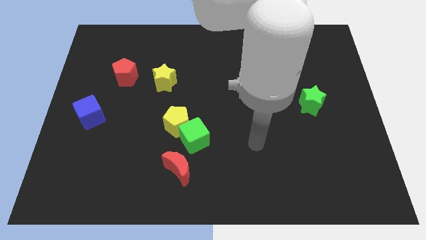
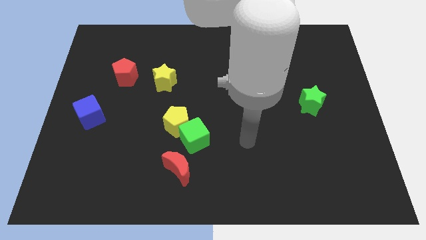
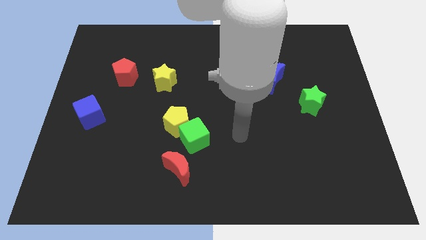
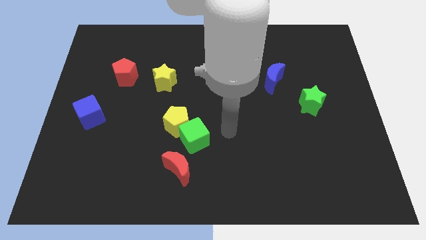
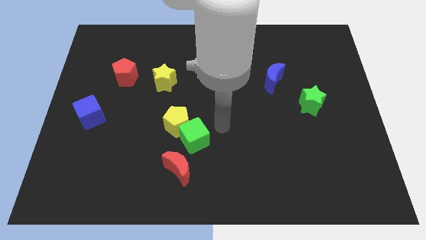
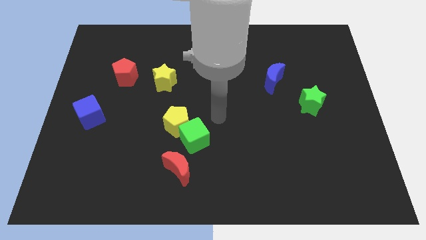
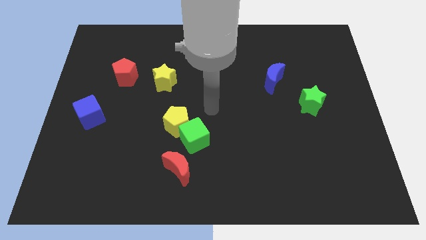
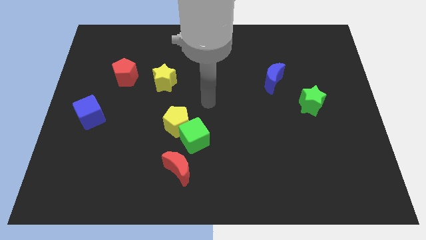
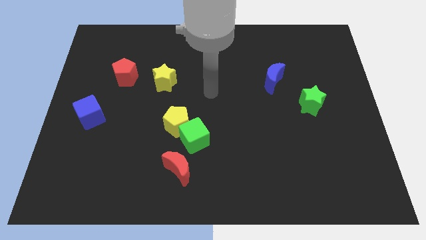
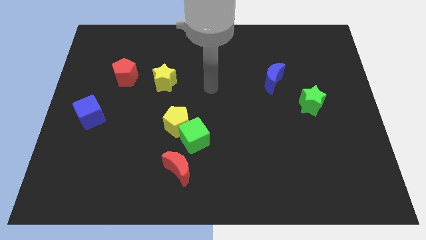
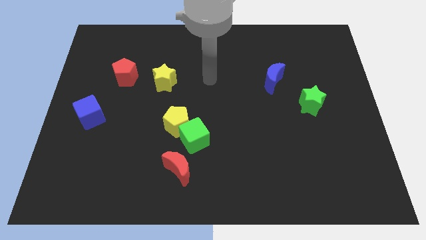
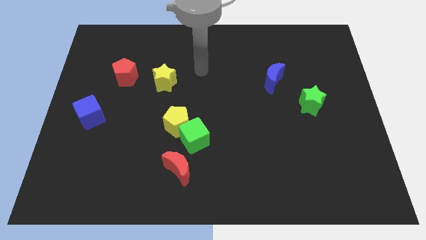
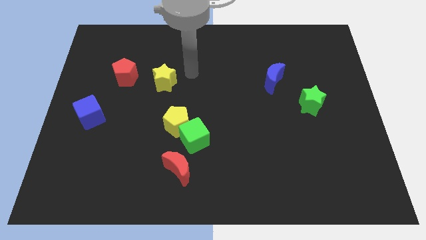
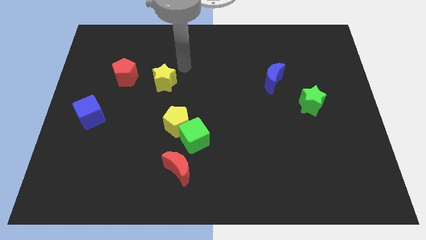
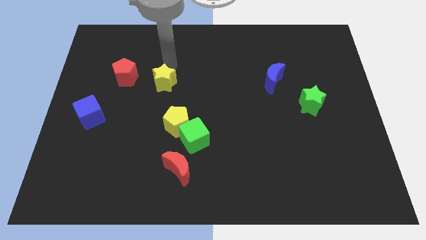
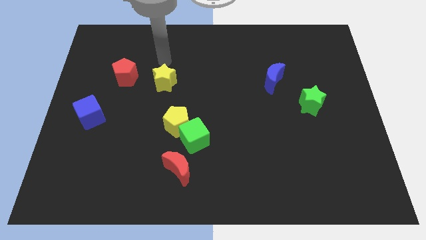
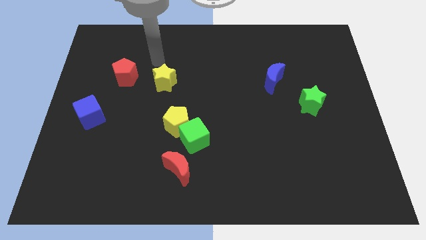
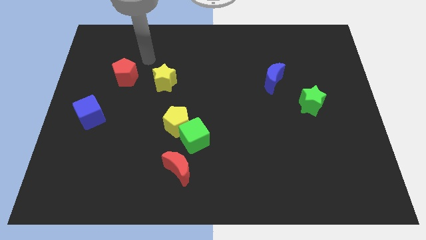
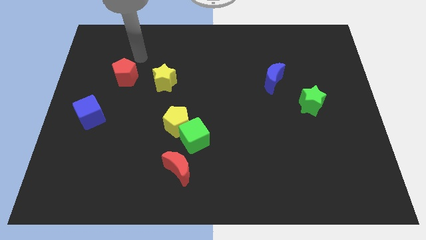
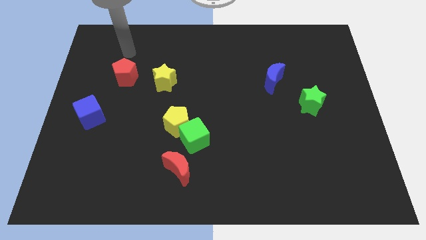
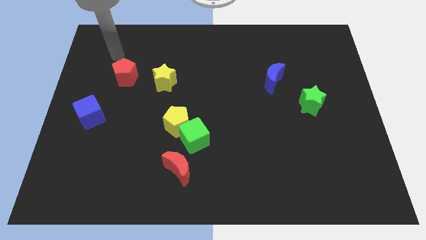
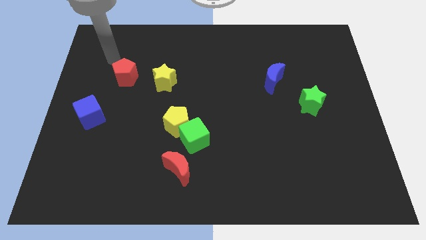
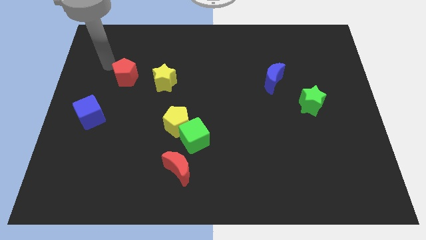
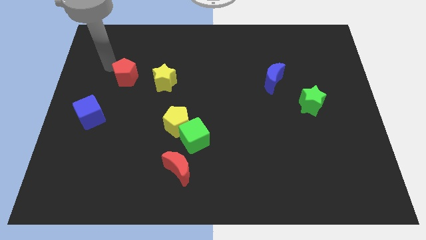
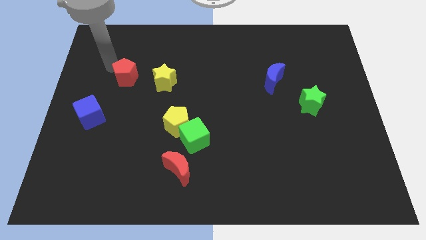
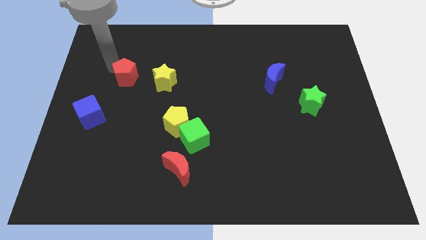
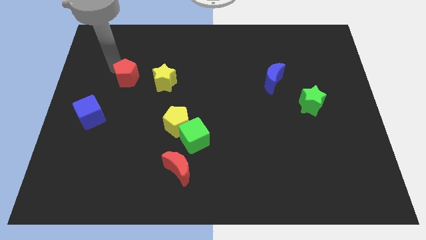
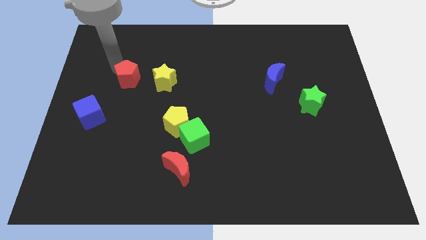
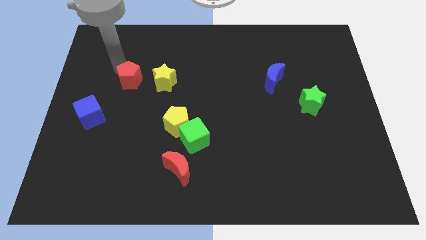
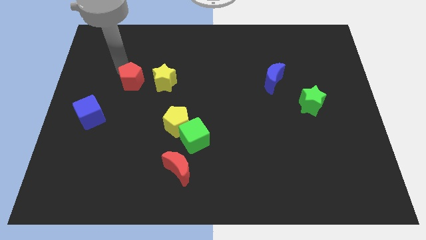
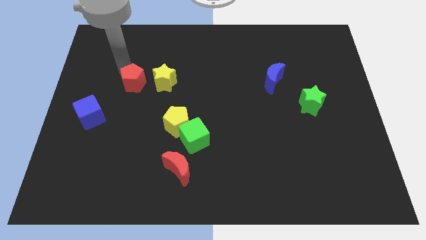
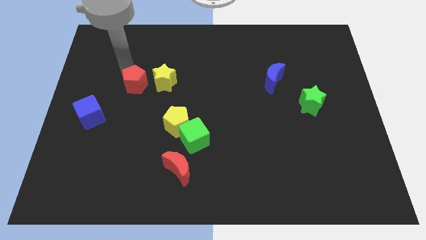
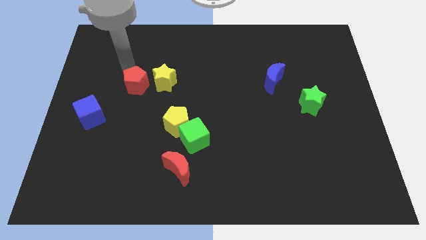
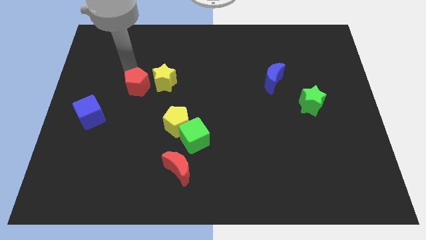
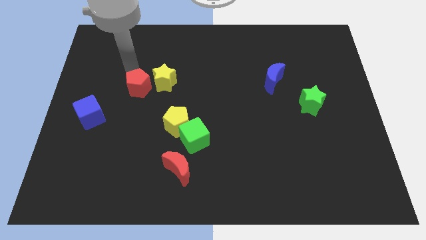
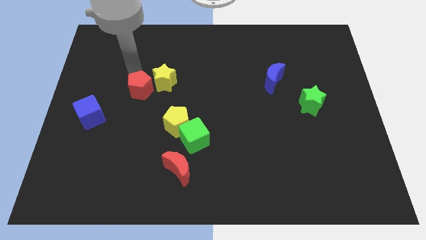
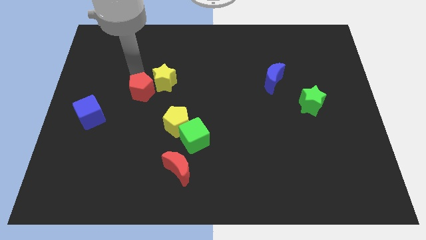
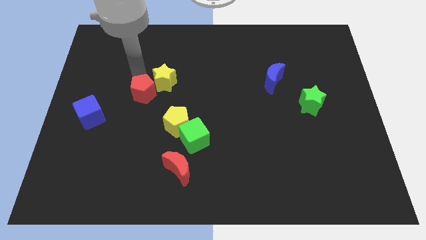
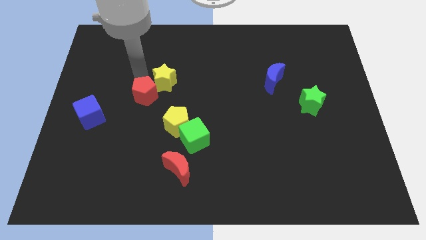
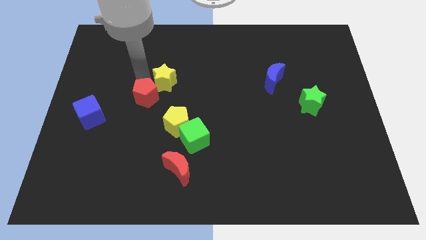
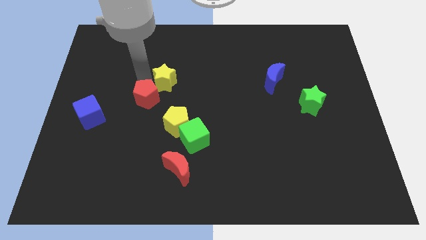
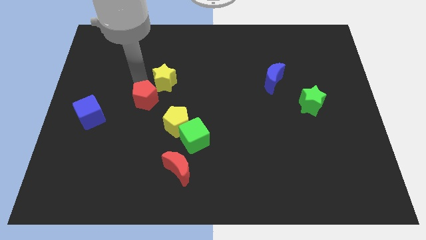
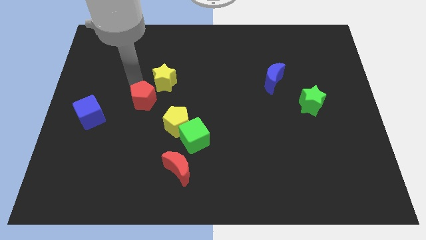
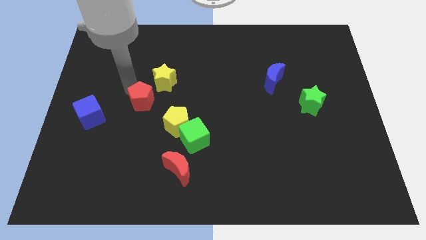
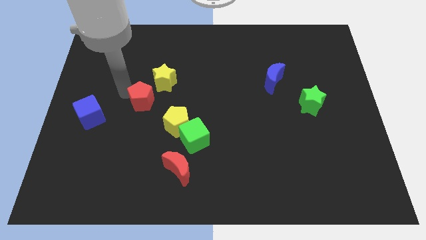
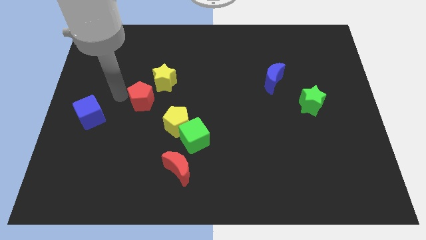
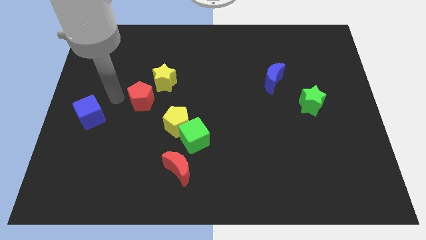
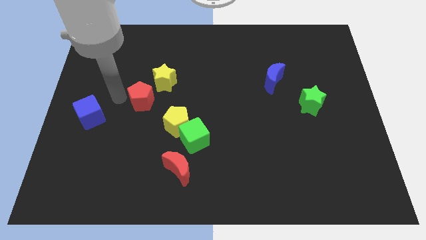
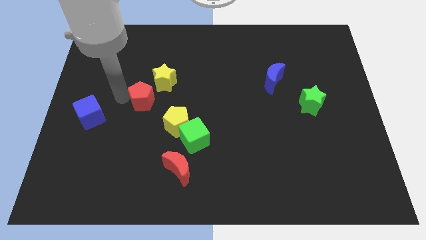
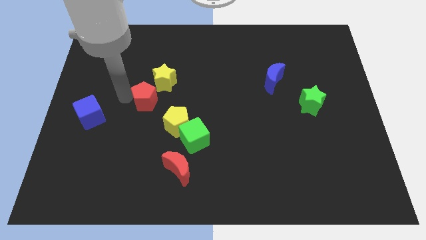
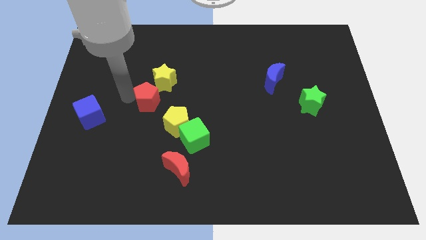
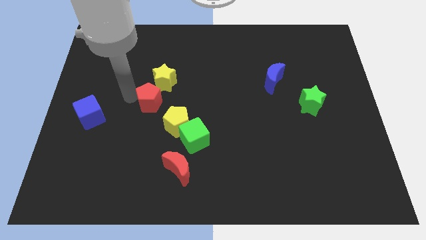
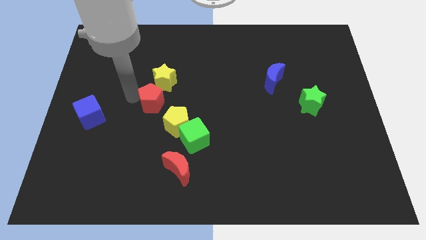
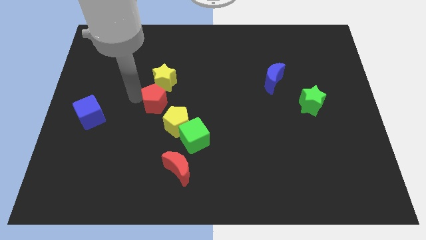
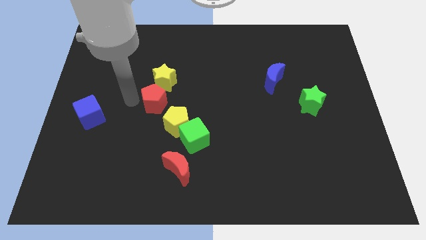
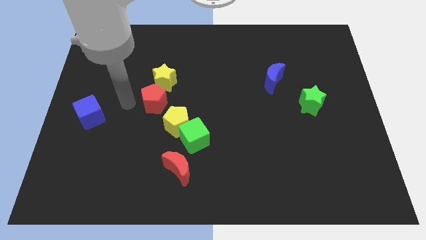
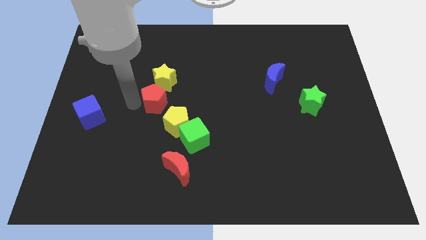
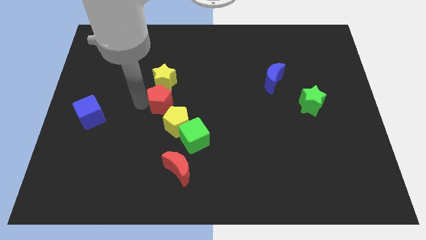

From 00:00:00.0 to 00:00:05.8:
slide the red pentagon to the middle

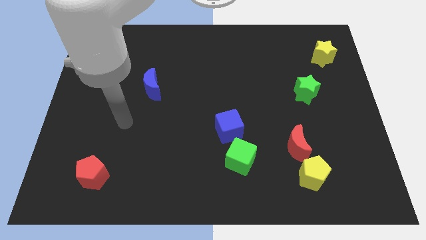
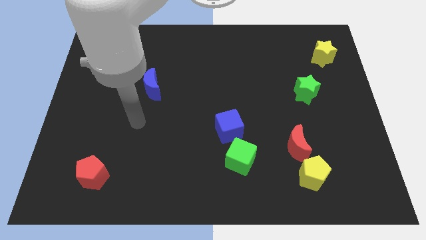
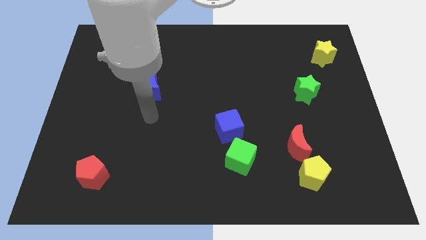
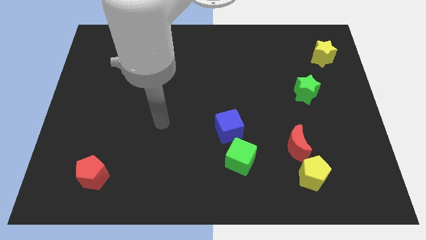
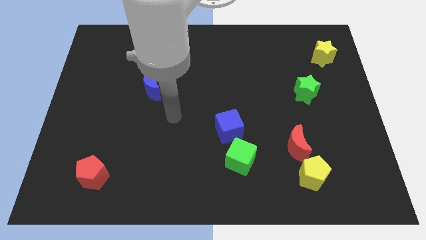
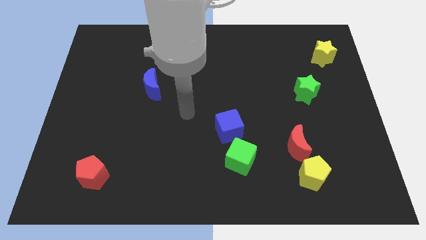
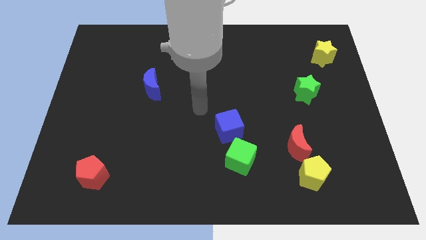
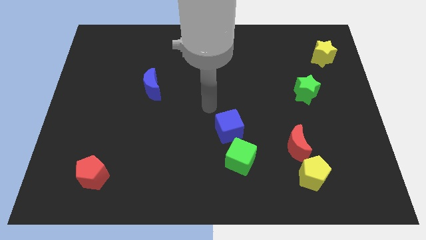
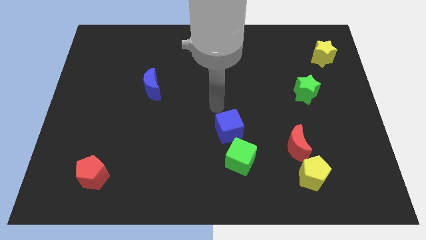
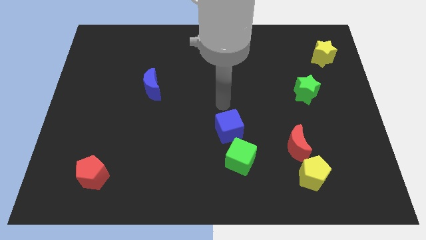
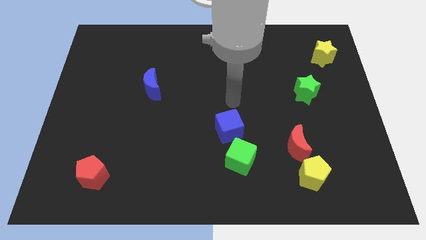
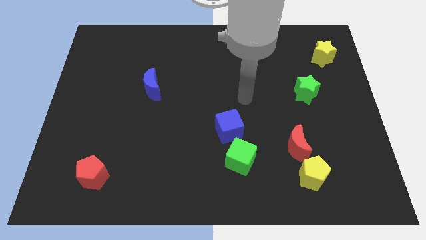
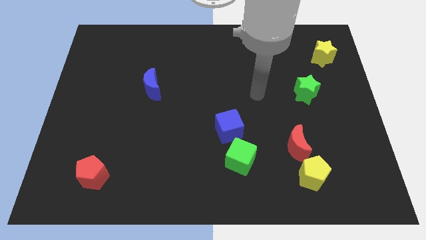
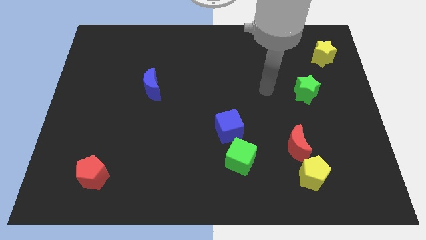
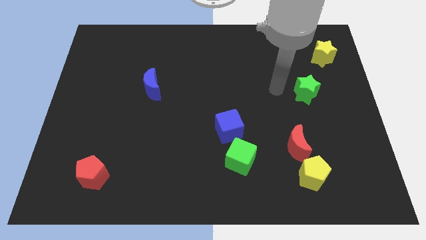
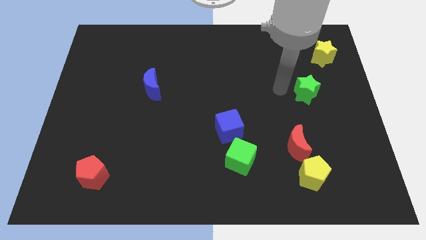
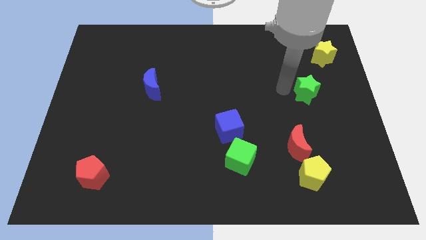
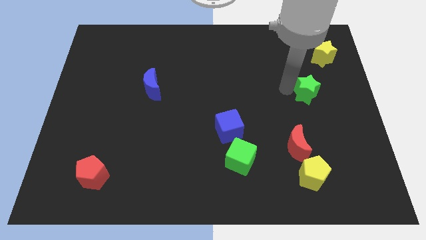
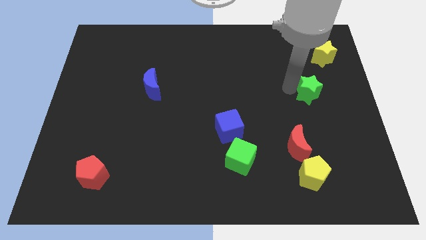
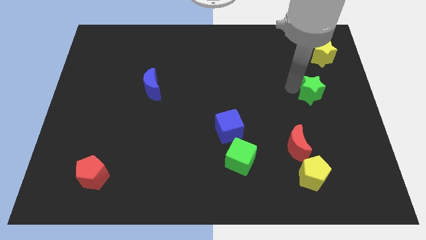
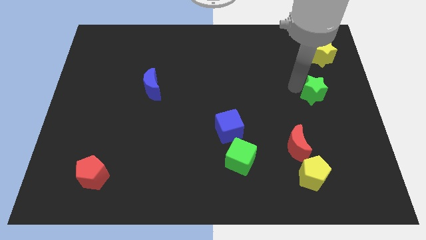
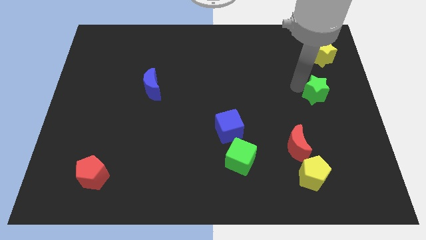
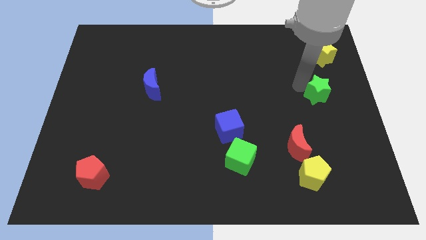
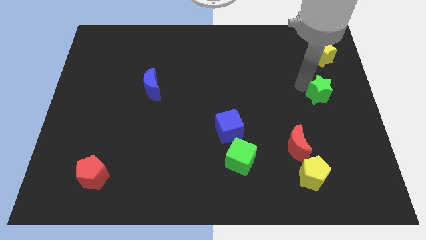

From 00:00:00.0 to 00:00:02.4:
push the green star to the right side of the board
